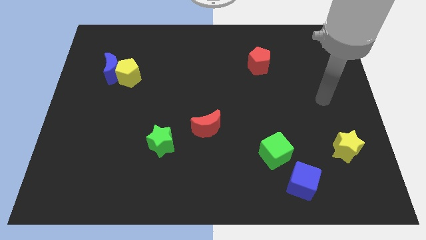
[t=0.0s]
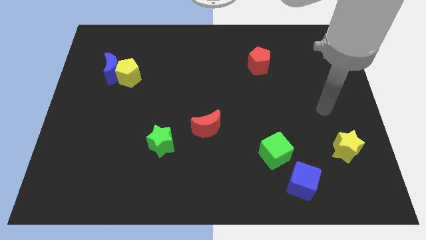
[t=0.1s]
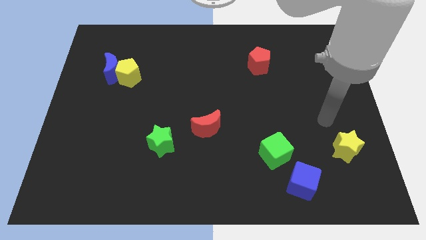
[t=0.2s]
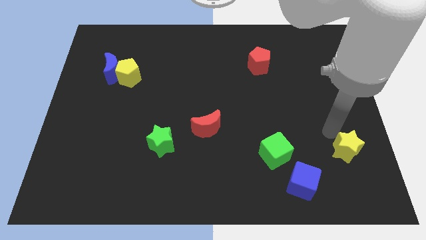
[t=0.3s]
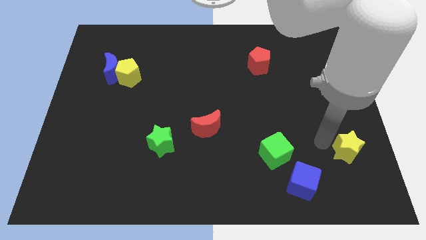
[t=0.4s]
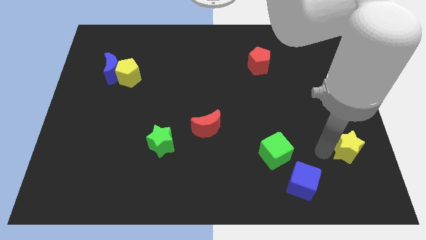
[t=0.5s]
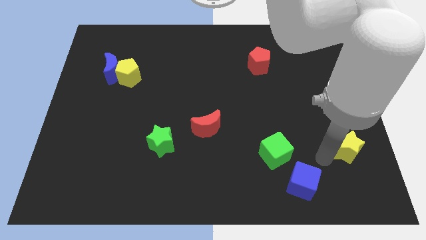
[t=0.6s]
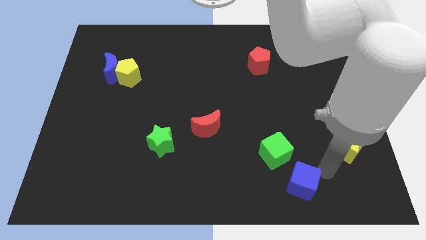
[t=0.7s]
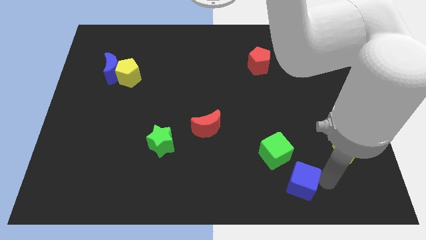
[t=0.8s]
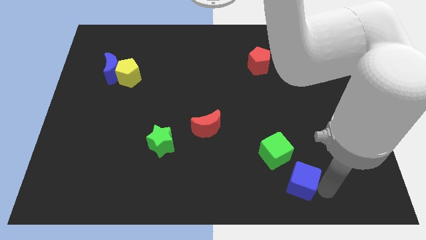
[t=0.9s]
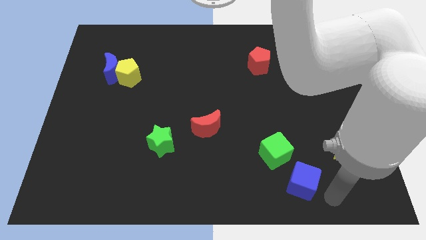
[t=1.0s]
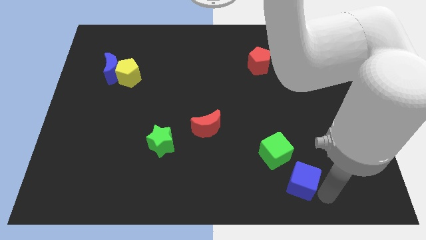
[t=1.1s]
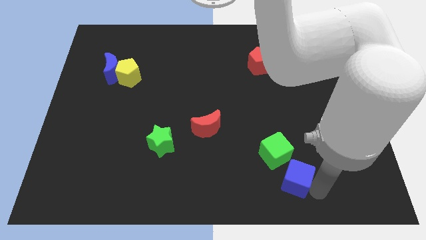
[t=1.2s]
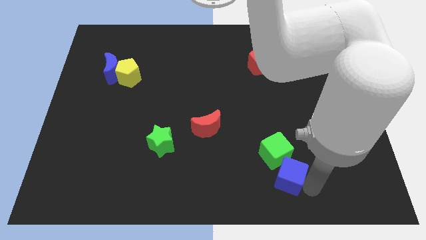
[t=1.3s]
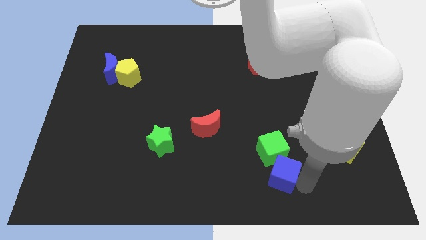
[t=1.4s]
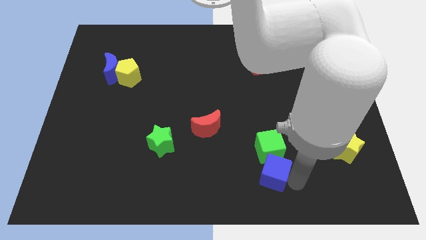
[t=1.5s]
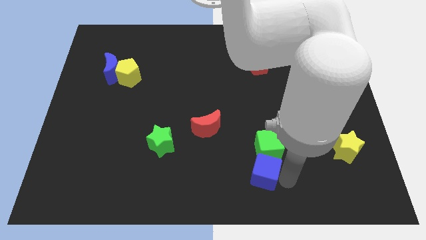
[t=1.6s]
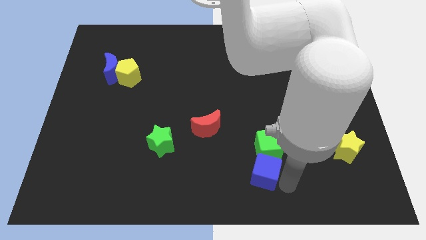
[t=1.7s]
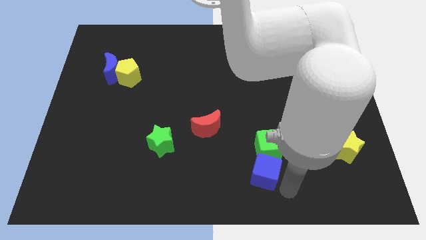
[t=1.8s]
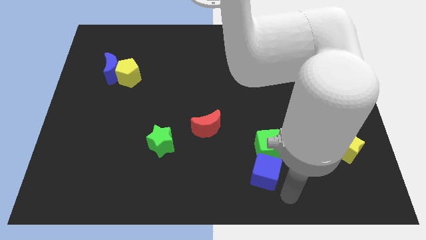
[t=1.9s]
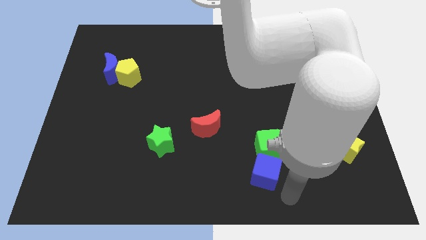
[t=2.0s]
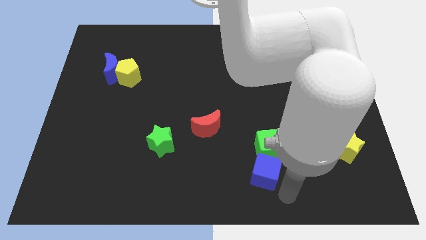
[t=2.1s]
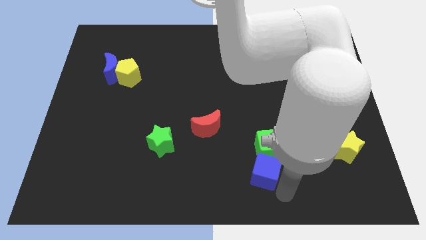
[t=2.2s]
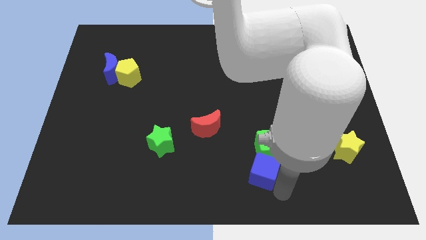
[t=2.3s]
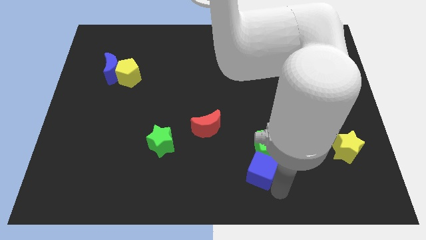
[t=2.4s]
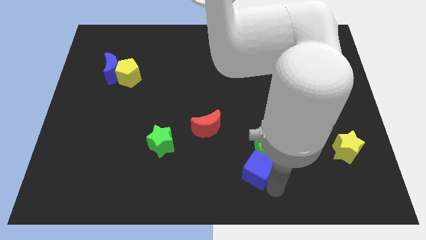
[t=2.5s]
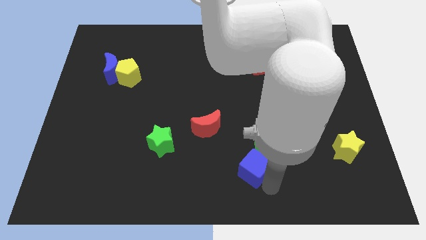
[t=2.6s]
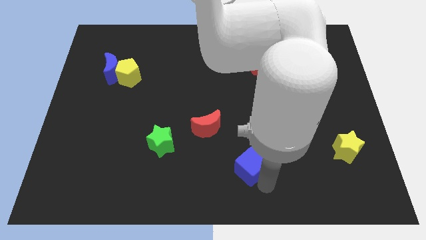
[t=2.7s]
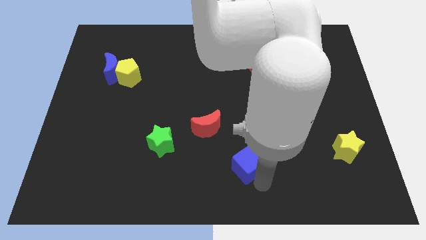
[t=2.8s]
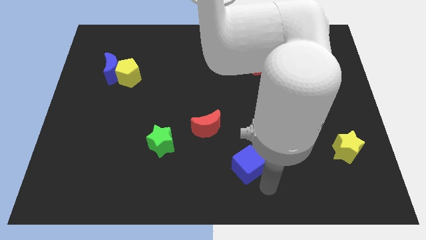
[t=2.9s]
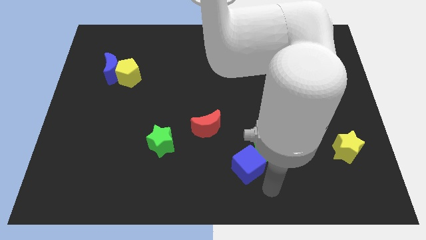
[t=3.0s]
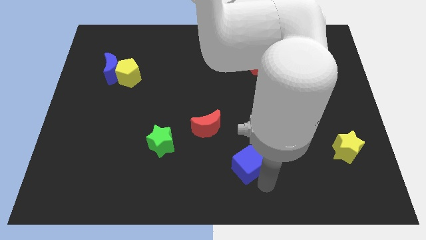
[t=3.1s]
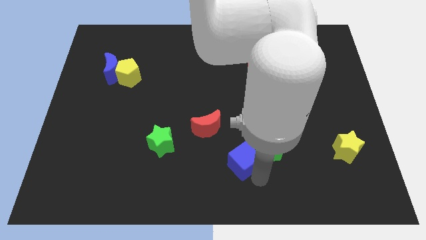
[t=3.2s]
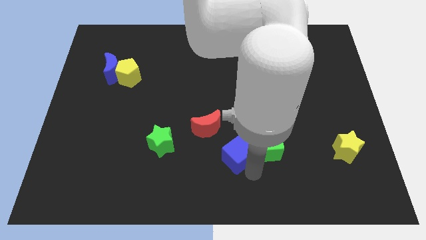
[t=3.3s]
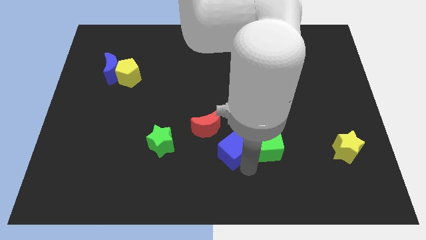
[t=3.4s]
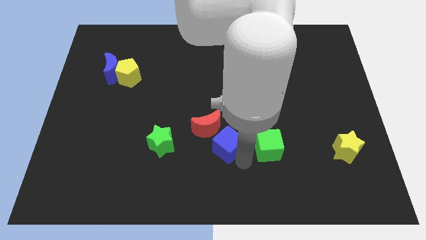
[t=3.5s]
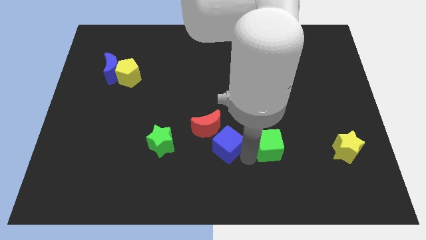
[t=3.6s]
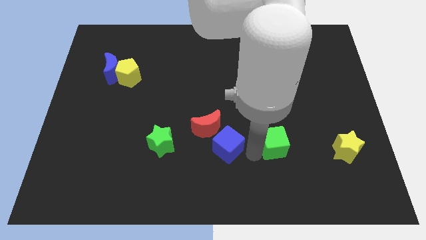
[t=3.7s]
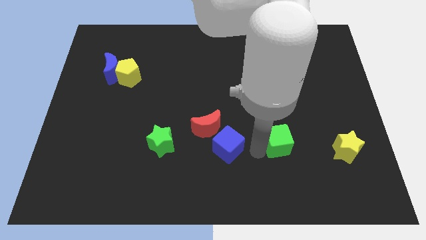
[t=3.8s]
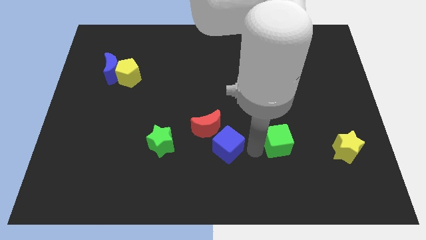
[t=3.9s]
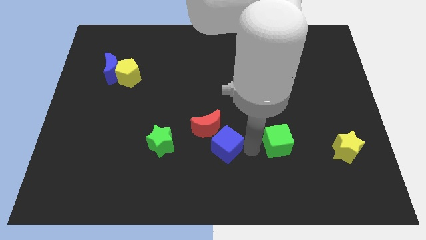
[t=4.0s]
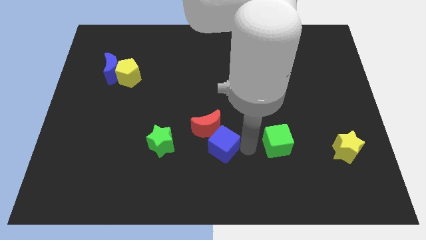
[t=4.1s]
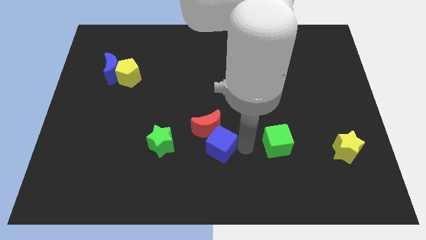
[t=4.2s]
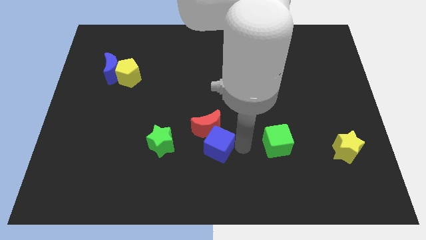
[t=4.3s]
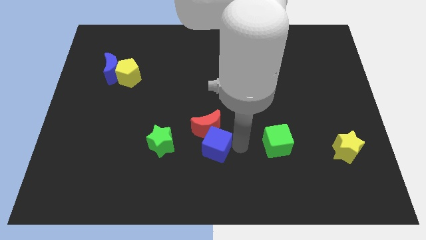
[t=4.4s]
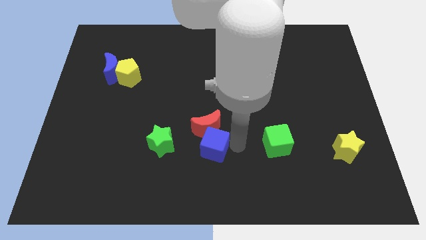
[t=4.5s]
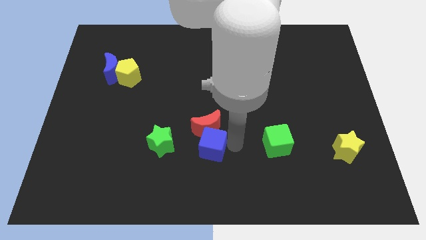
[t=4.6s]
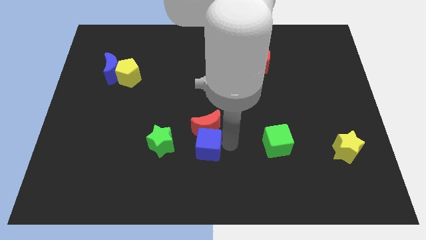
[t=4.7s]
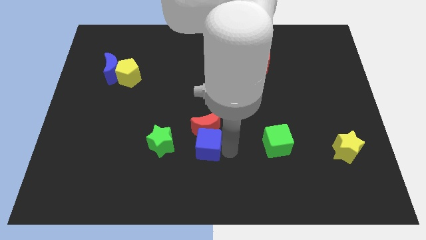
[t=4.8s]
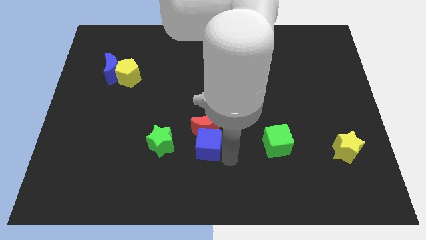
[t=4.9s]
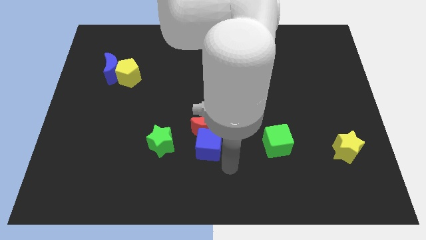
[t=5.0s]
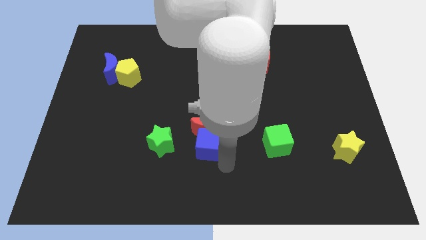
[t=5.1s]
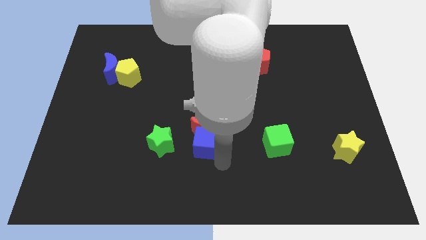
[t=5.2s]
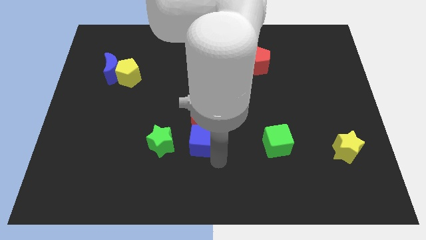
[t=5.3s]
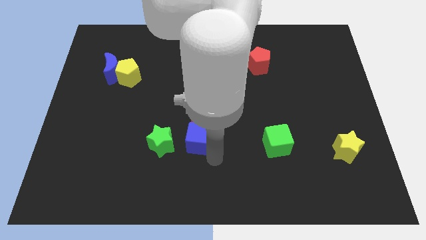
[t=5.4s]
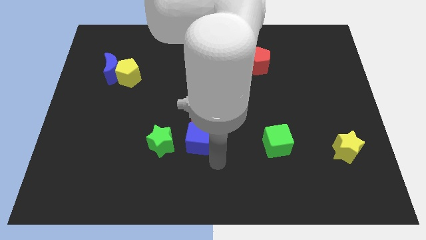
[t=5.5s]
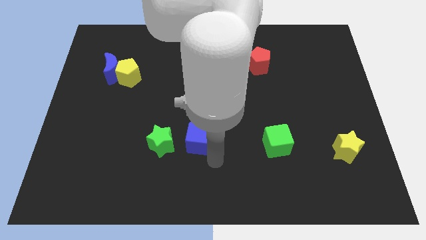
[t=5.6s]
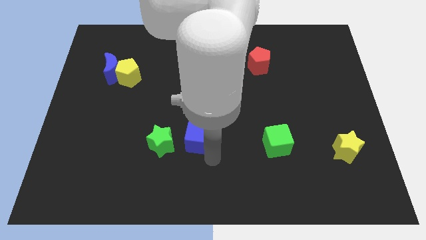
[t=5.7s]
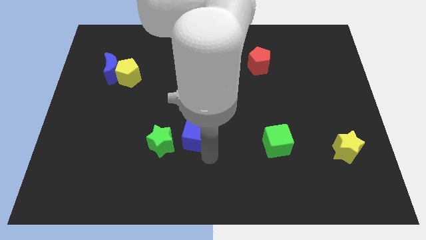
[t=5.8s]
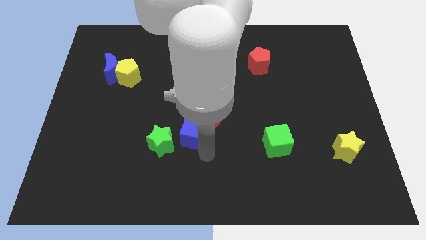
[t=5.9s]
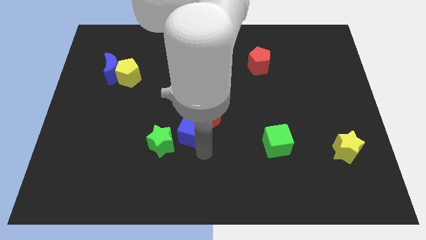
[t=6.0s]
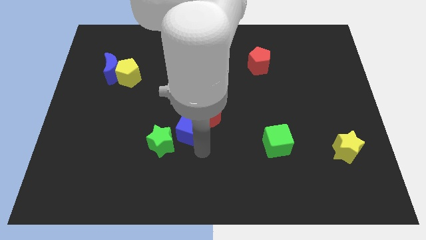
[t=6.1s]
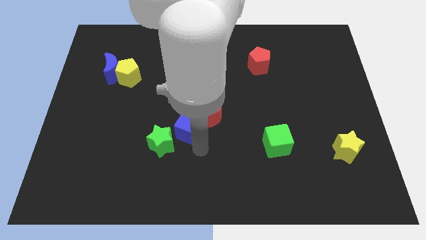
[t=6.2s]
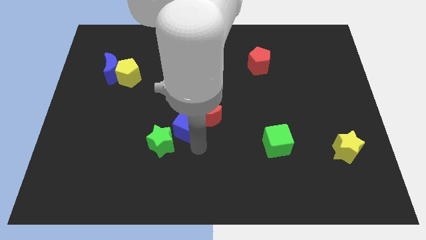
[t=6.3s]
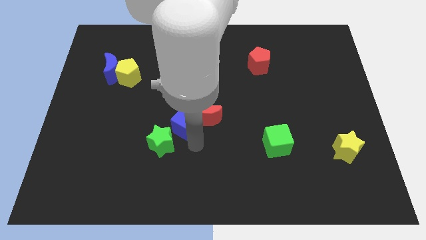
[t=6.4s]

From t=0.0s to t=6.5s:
put the blue cube above the green star

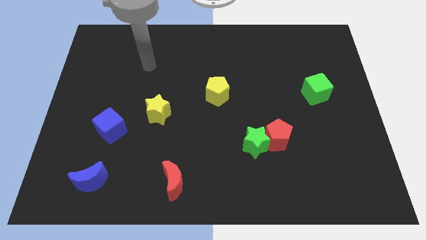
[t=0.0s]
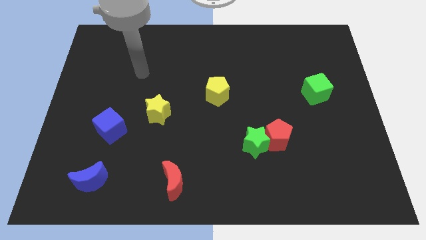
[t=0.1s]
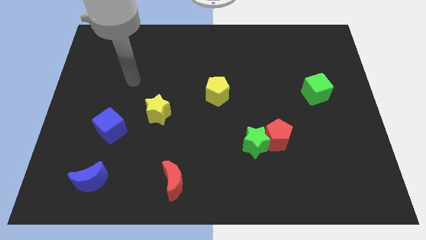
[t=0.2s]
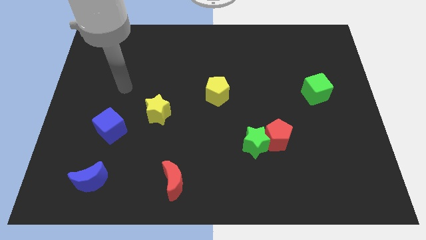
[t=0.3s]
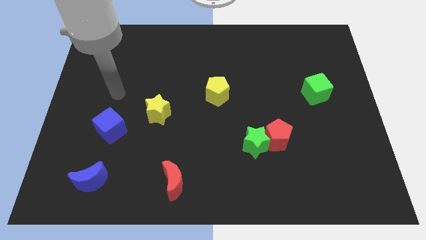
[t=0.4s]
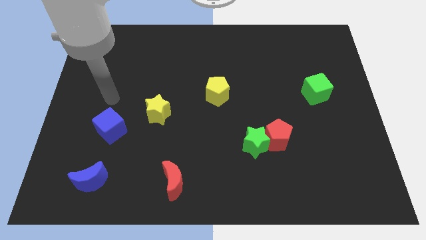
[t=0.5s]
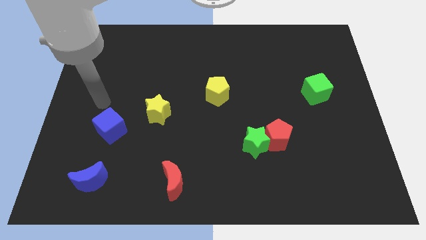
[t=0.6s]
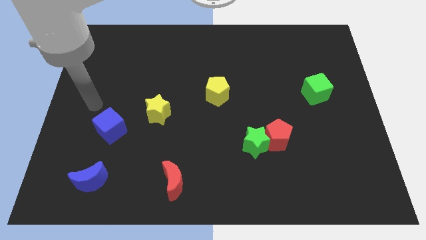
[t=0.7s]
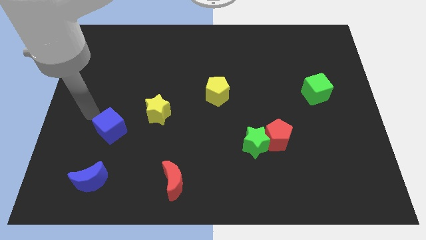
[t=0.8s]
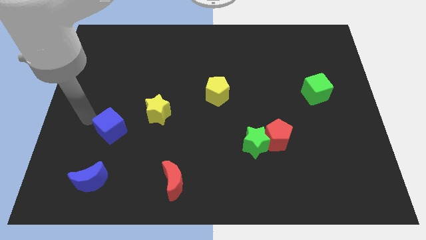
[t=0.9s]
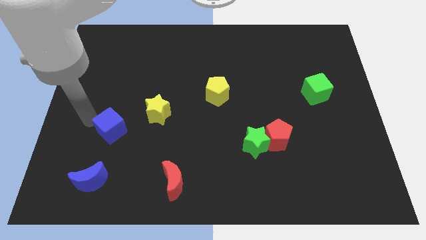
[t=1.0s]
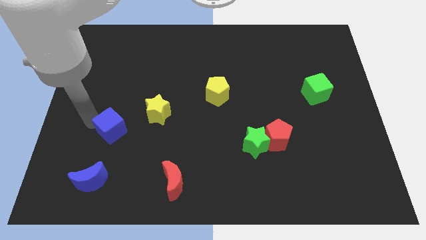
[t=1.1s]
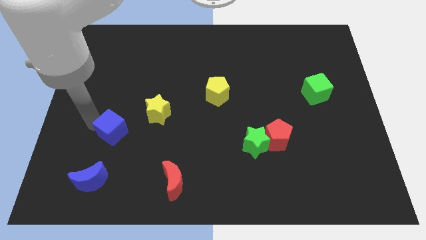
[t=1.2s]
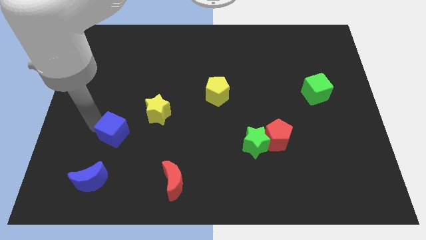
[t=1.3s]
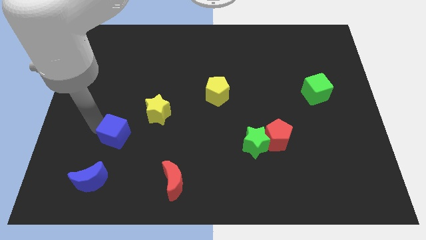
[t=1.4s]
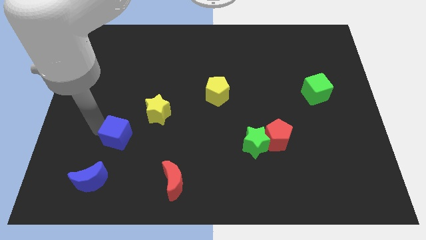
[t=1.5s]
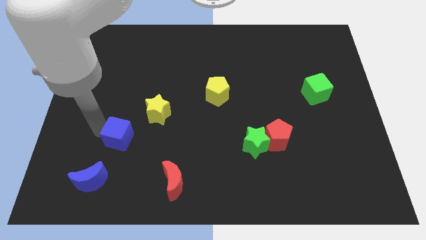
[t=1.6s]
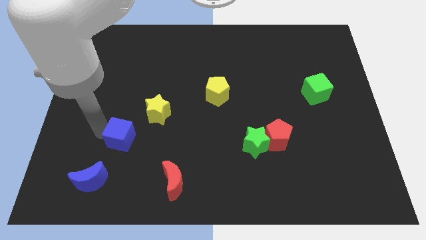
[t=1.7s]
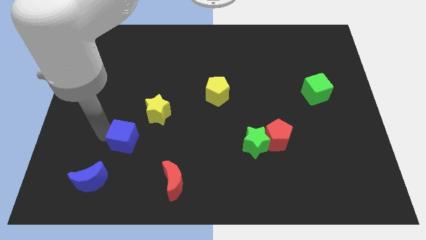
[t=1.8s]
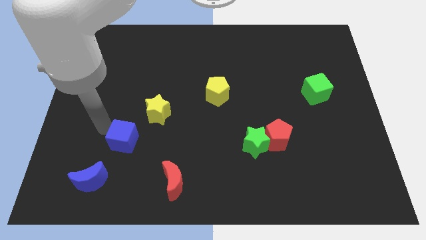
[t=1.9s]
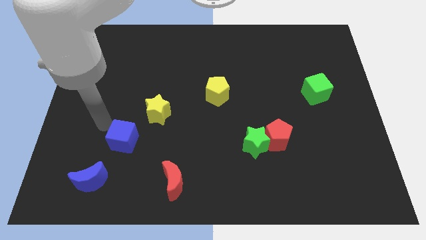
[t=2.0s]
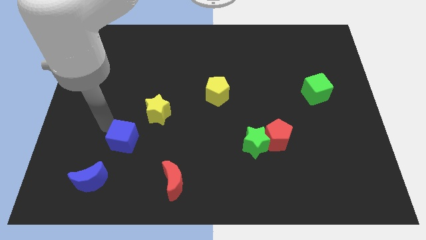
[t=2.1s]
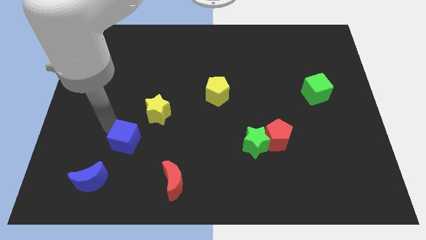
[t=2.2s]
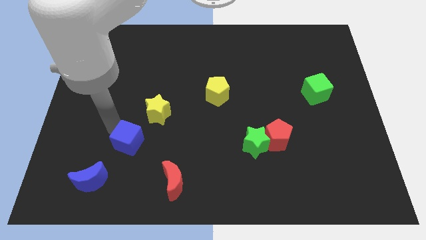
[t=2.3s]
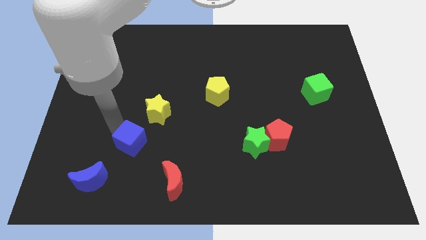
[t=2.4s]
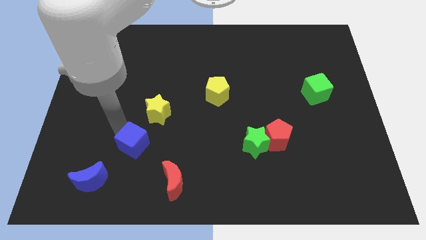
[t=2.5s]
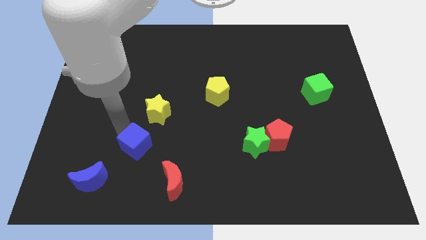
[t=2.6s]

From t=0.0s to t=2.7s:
move the blue cube to the top left side of the red moon
